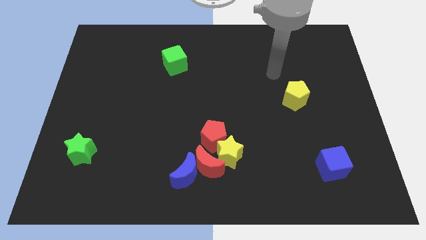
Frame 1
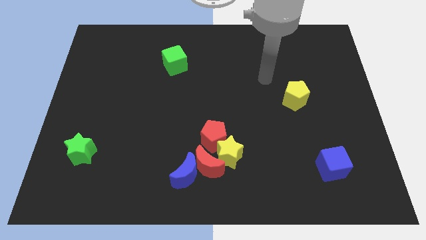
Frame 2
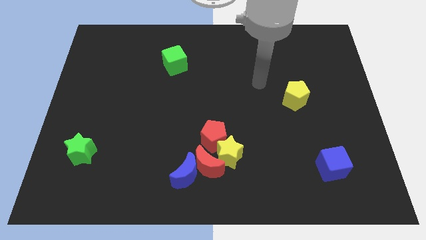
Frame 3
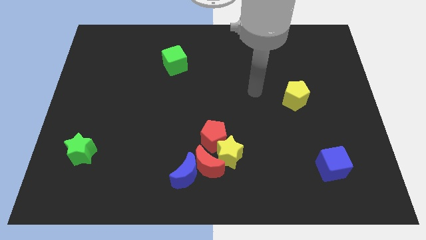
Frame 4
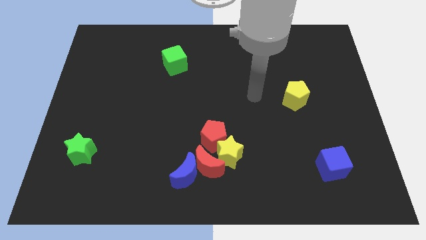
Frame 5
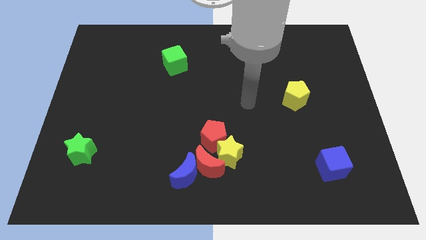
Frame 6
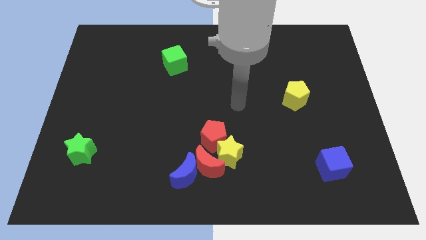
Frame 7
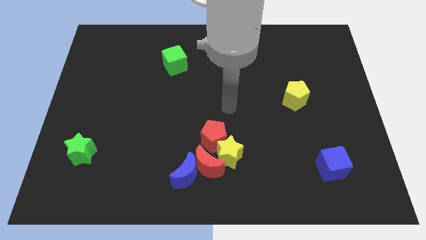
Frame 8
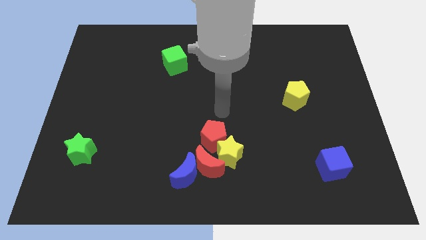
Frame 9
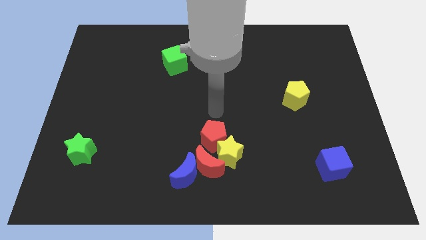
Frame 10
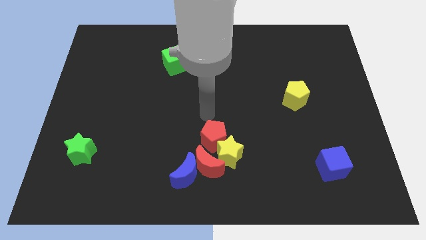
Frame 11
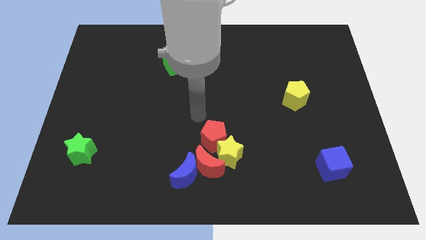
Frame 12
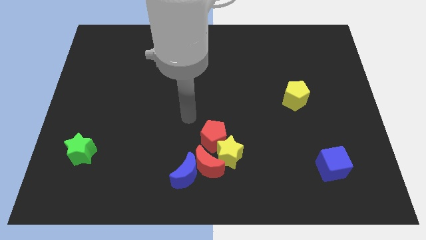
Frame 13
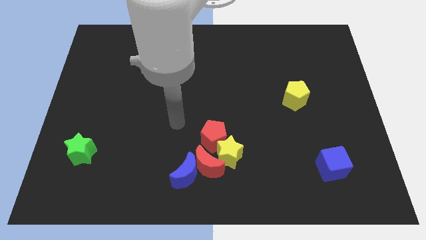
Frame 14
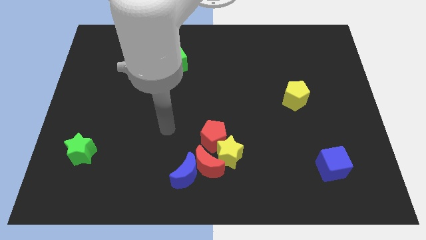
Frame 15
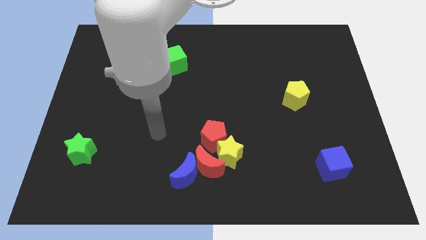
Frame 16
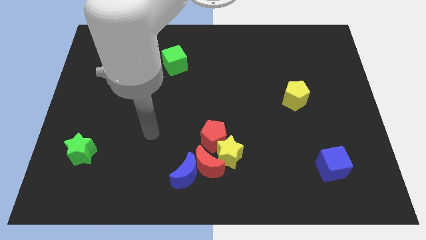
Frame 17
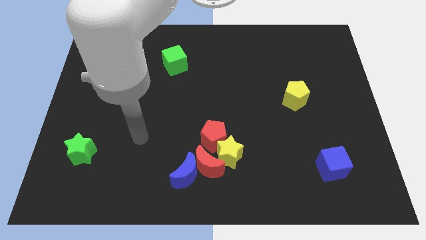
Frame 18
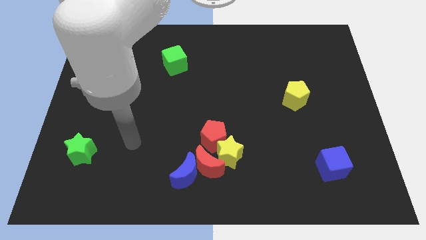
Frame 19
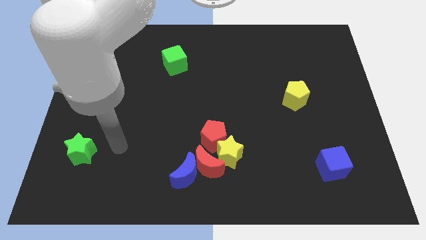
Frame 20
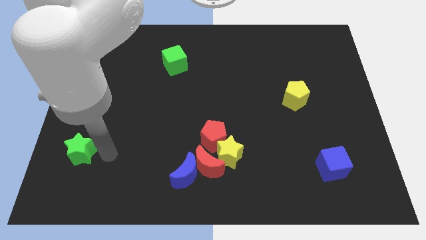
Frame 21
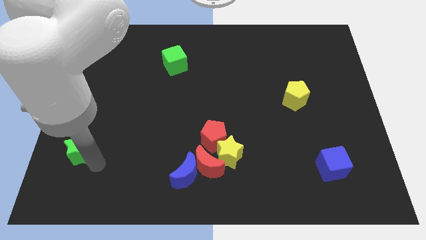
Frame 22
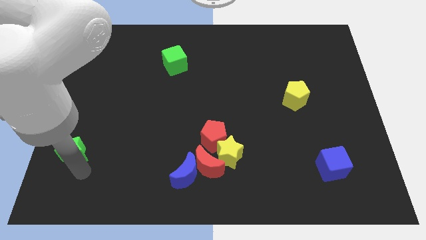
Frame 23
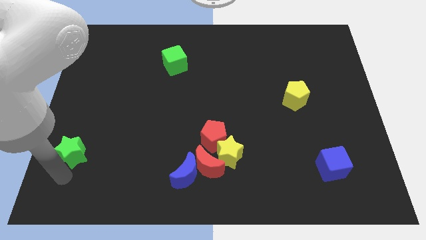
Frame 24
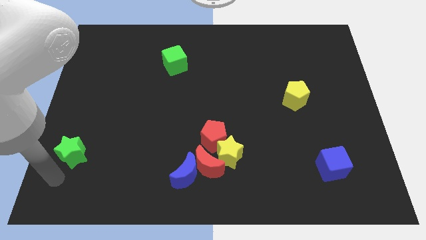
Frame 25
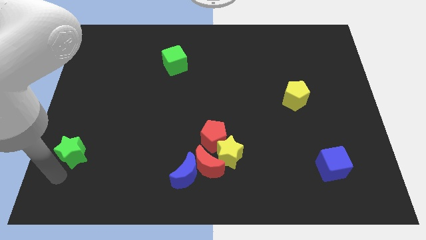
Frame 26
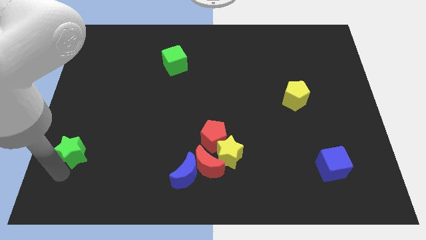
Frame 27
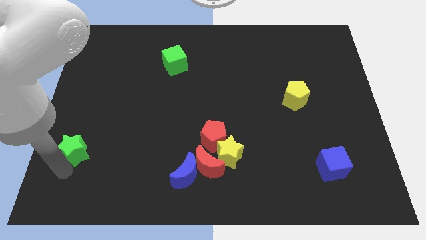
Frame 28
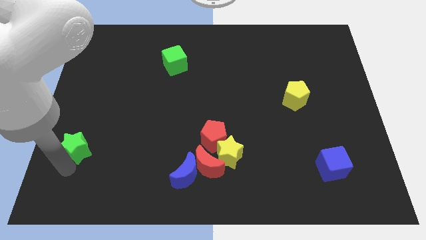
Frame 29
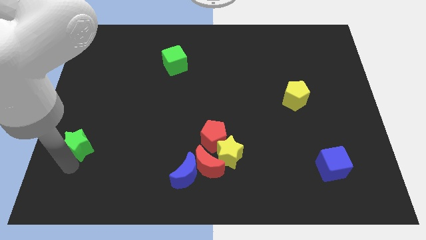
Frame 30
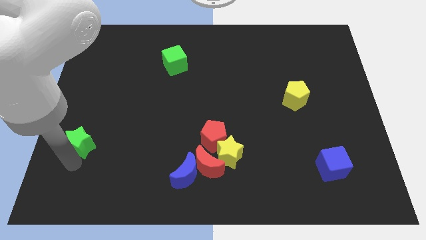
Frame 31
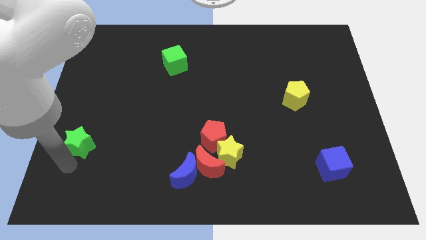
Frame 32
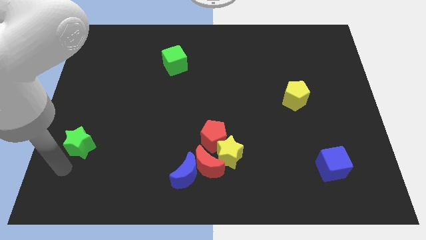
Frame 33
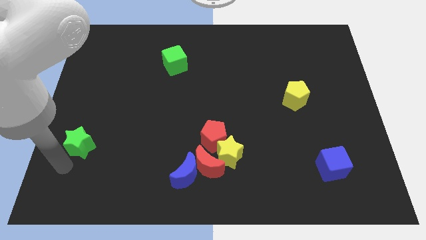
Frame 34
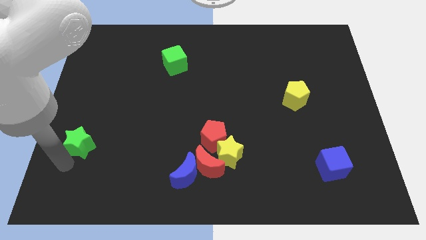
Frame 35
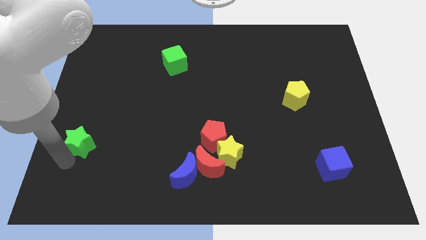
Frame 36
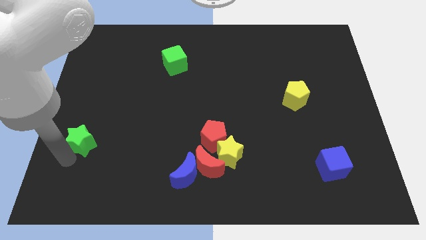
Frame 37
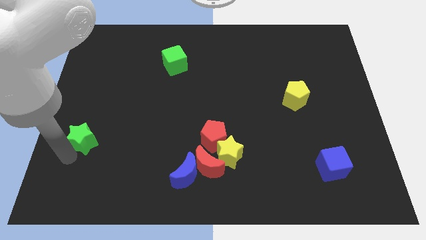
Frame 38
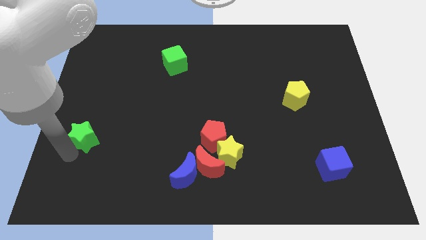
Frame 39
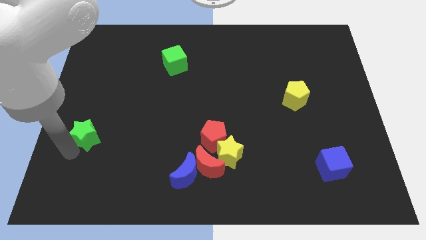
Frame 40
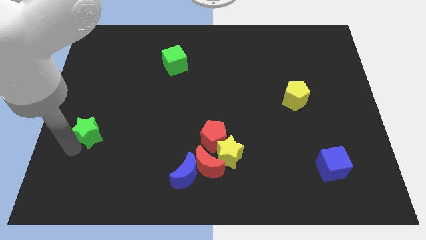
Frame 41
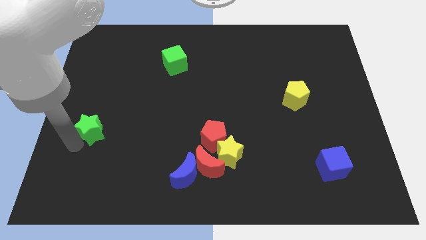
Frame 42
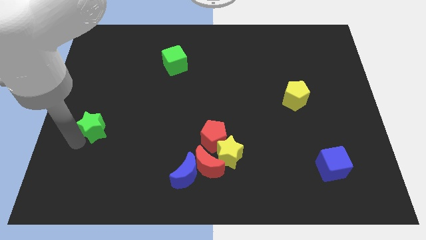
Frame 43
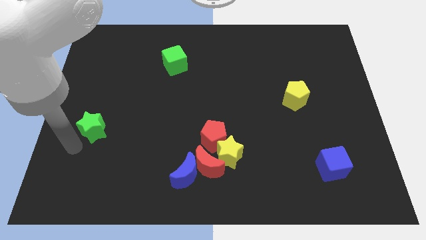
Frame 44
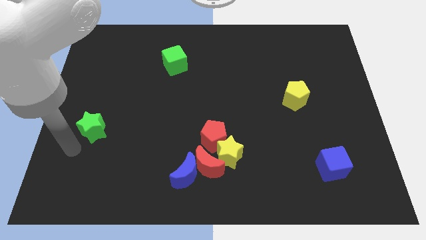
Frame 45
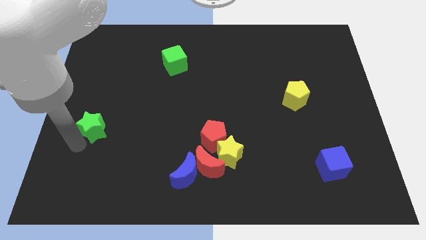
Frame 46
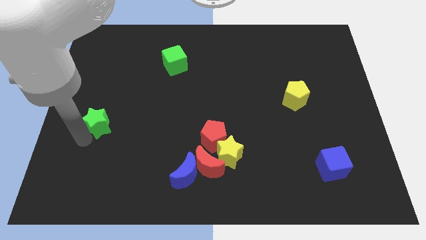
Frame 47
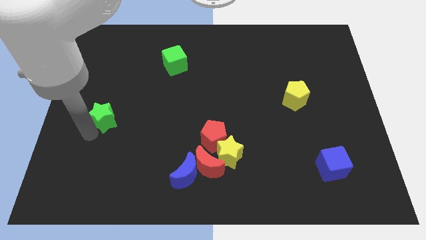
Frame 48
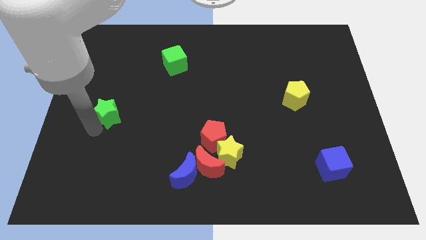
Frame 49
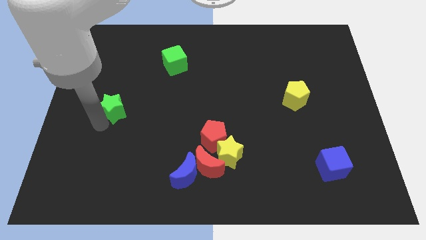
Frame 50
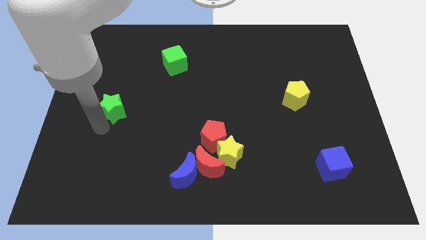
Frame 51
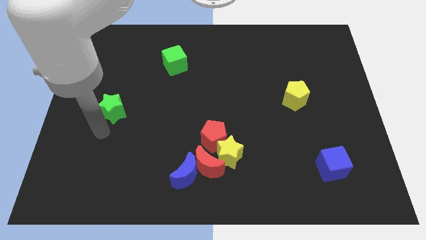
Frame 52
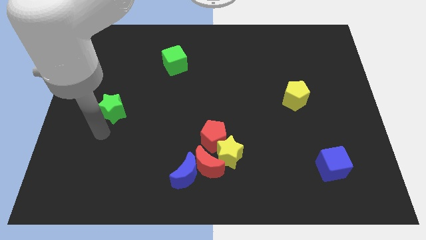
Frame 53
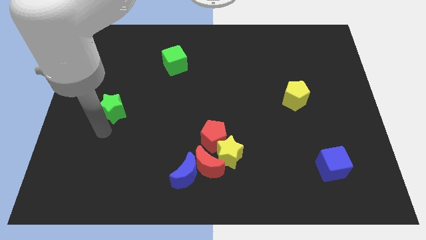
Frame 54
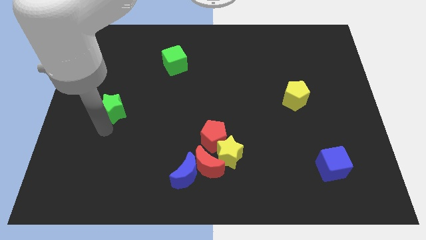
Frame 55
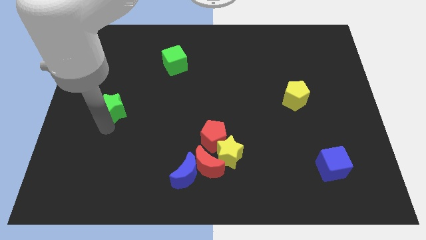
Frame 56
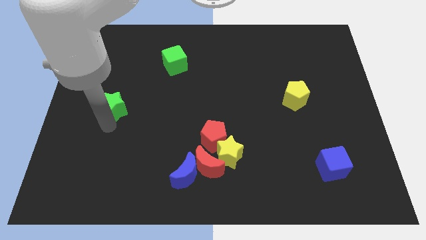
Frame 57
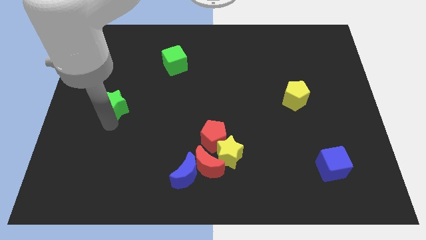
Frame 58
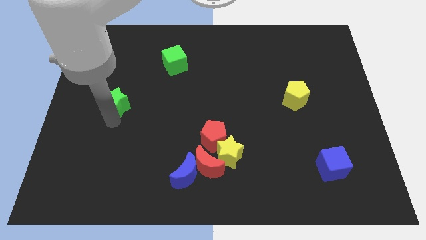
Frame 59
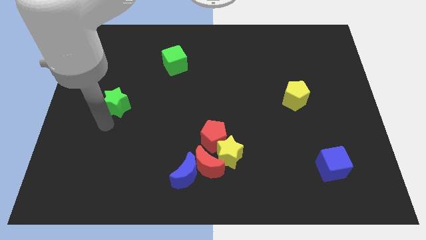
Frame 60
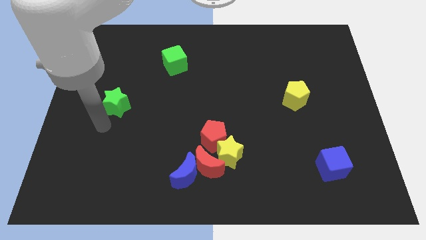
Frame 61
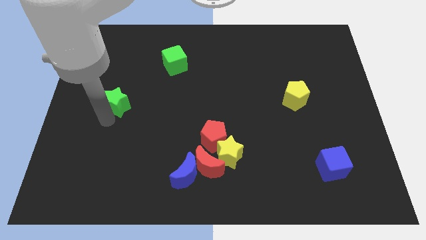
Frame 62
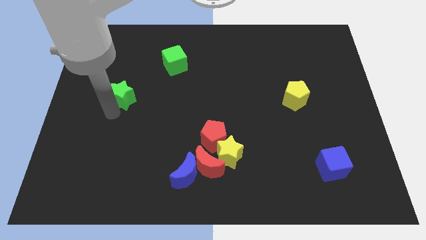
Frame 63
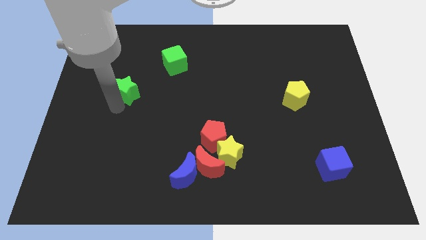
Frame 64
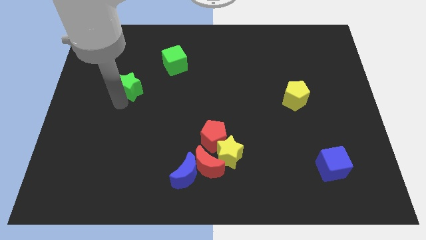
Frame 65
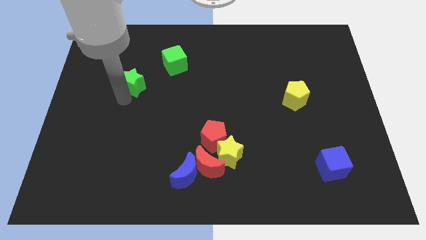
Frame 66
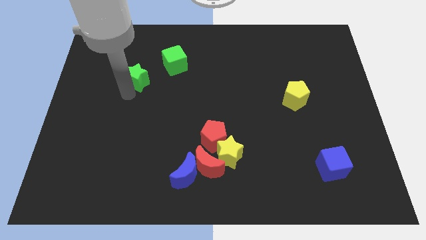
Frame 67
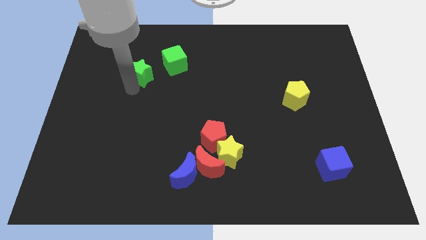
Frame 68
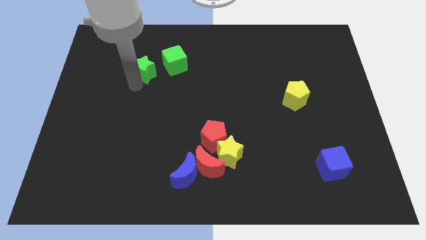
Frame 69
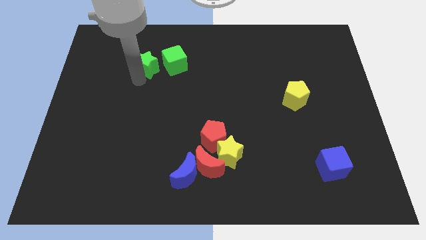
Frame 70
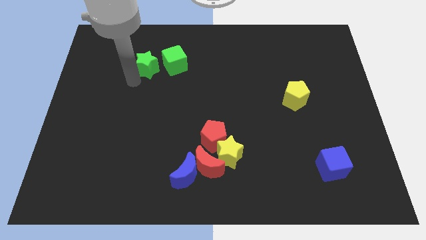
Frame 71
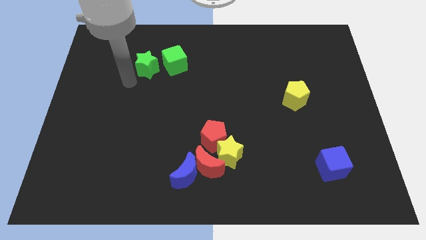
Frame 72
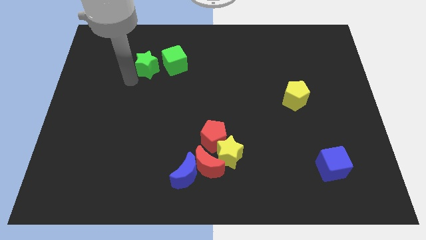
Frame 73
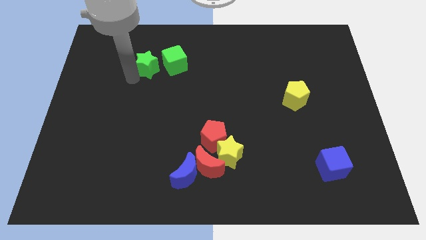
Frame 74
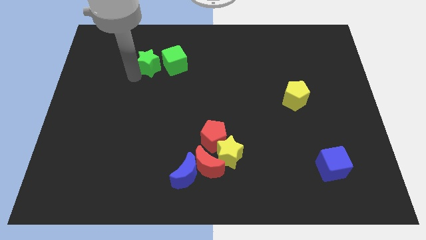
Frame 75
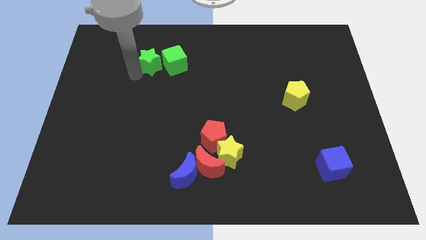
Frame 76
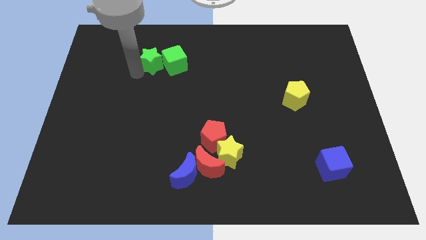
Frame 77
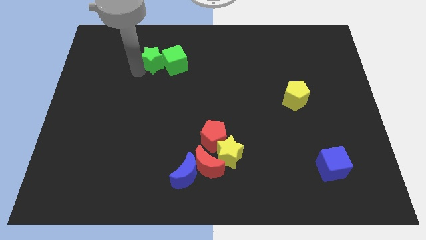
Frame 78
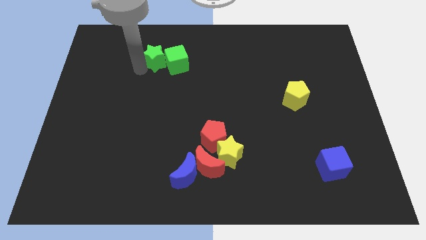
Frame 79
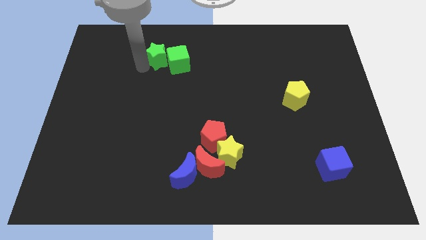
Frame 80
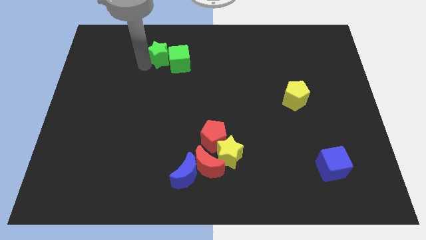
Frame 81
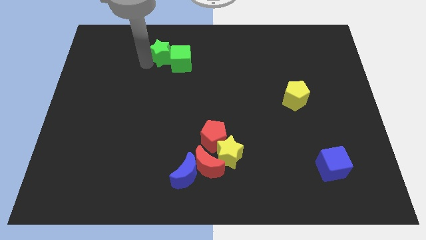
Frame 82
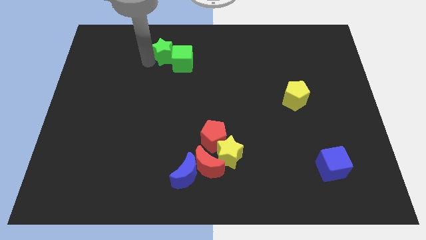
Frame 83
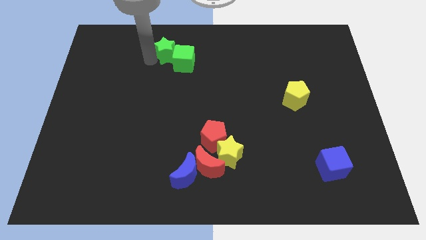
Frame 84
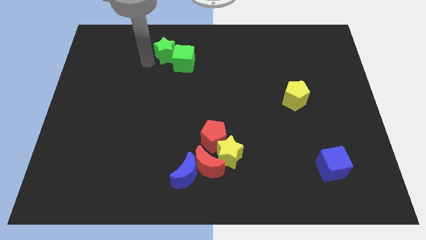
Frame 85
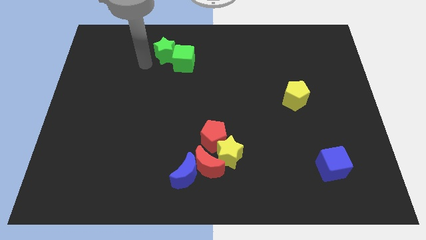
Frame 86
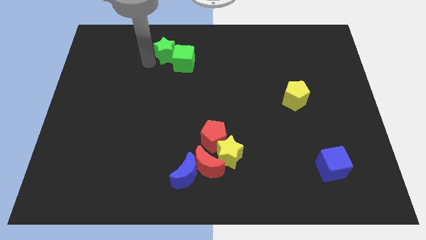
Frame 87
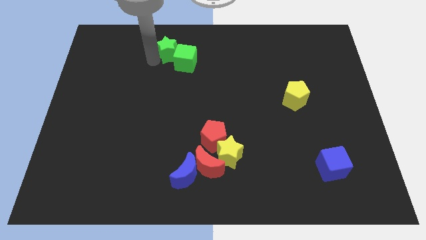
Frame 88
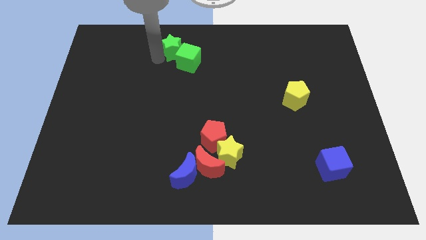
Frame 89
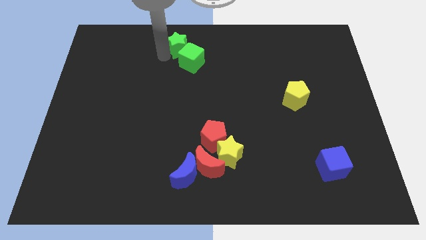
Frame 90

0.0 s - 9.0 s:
move the green star to the towards your base
